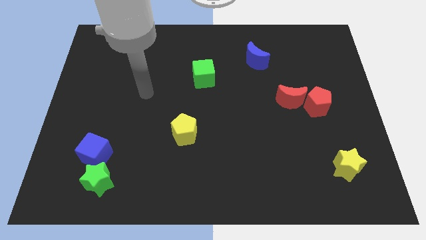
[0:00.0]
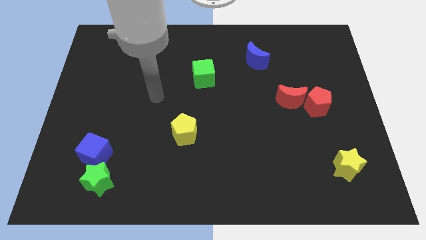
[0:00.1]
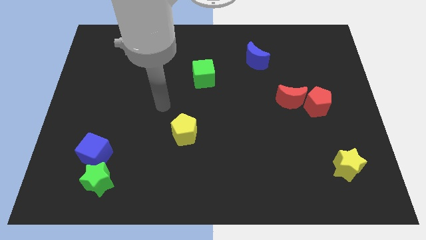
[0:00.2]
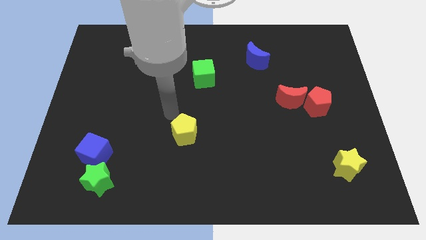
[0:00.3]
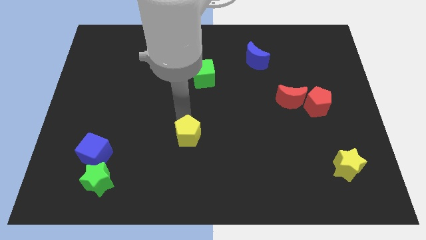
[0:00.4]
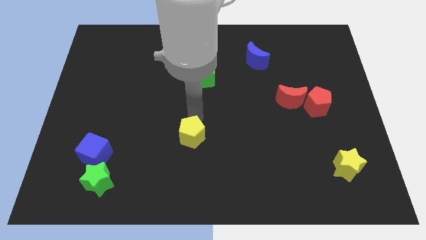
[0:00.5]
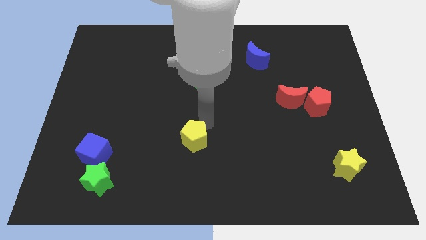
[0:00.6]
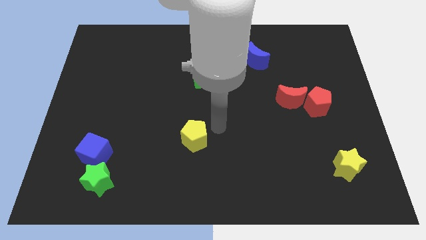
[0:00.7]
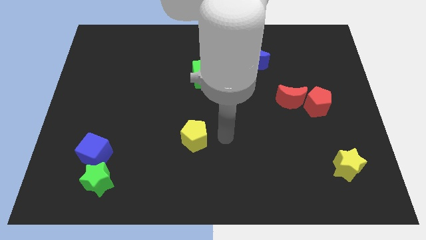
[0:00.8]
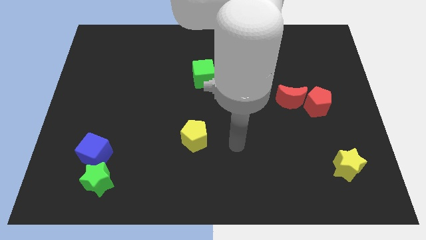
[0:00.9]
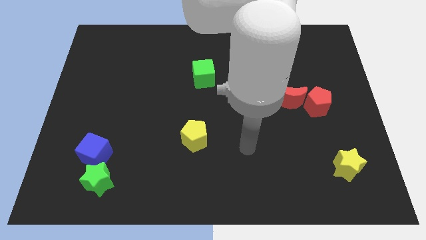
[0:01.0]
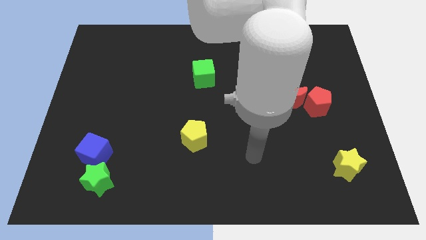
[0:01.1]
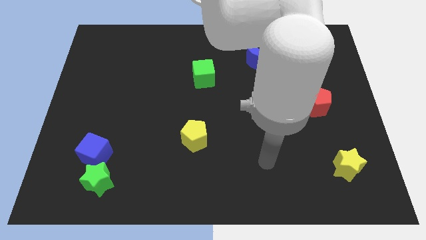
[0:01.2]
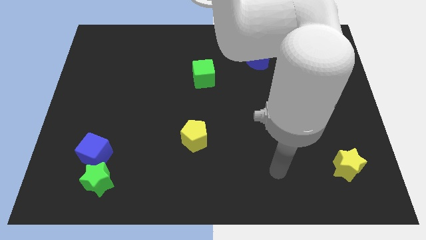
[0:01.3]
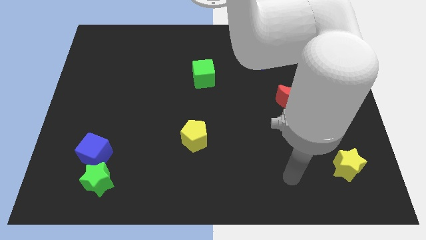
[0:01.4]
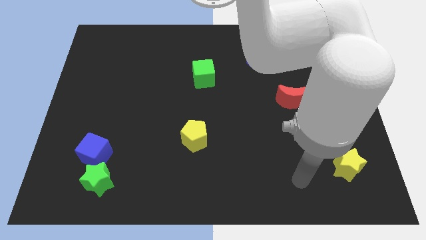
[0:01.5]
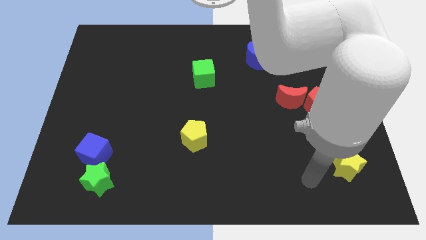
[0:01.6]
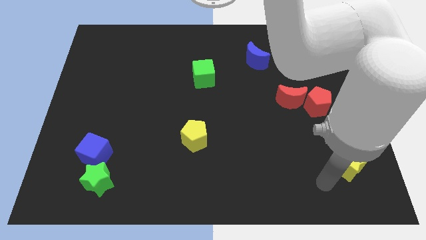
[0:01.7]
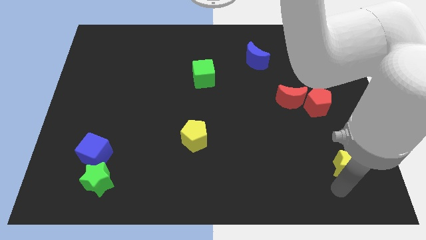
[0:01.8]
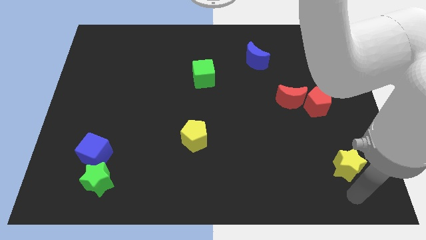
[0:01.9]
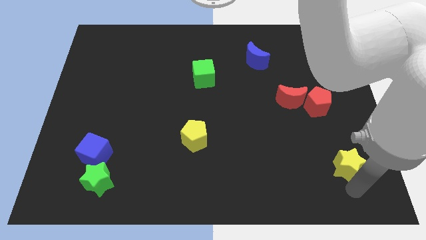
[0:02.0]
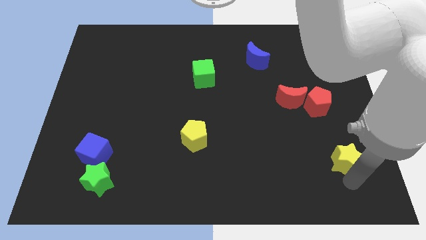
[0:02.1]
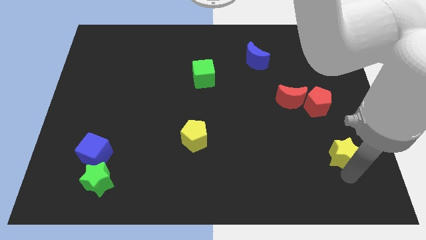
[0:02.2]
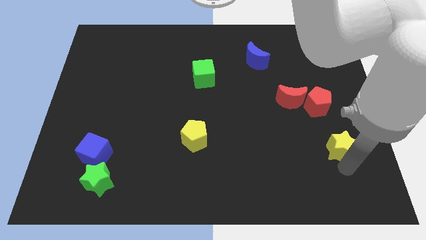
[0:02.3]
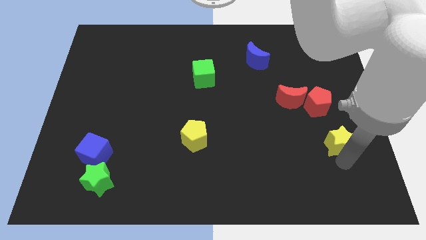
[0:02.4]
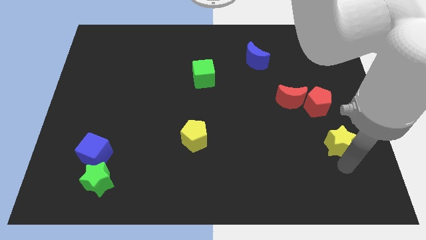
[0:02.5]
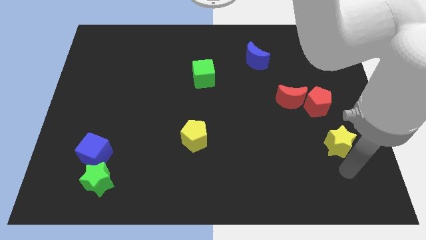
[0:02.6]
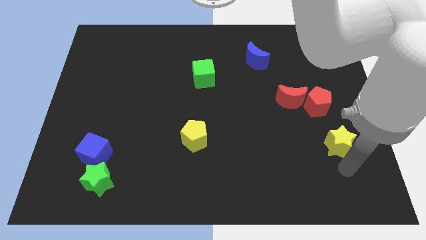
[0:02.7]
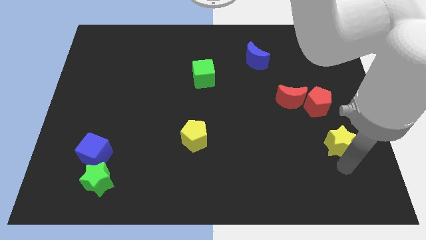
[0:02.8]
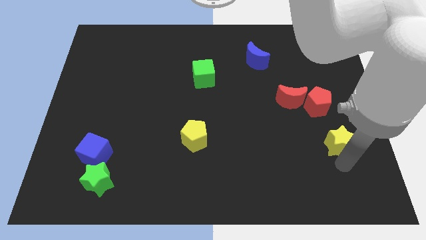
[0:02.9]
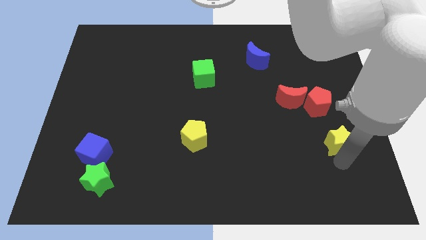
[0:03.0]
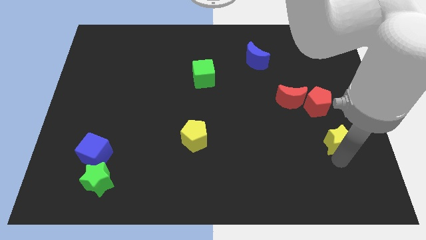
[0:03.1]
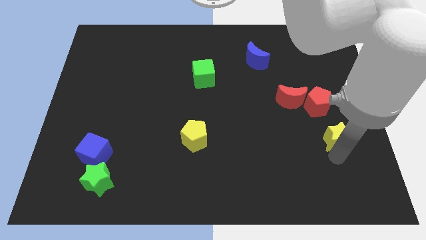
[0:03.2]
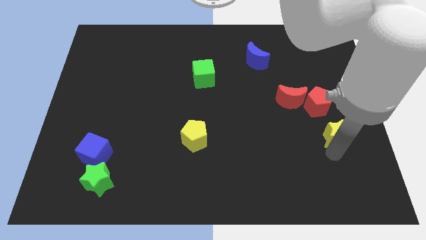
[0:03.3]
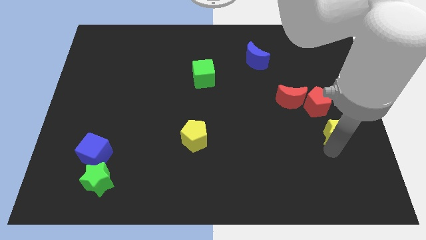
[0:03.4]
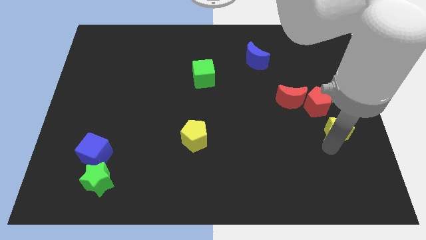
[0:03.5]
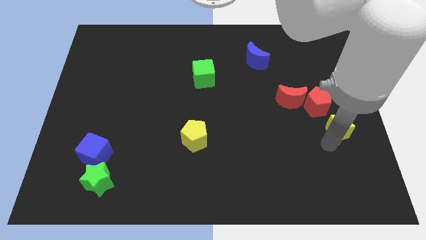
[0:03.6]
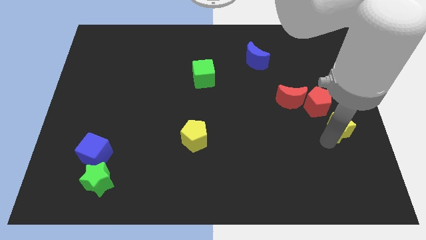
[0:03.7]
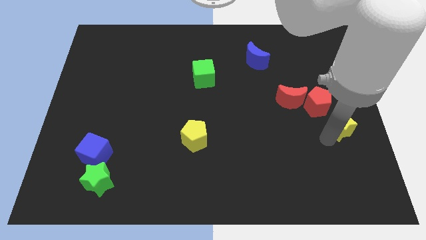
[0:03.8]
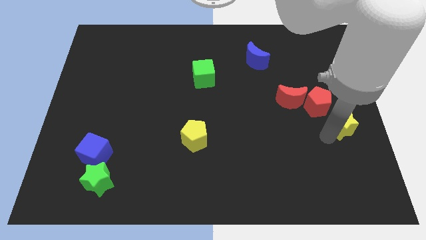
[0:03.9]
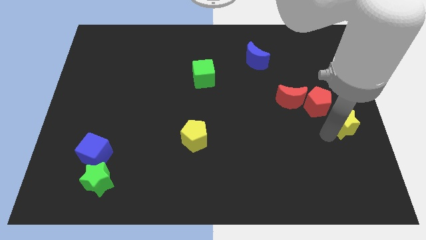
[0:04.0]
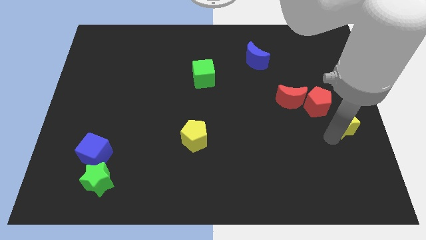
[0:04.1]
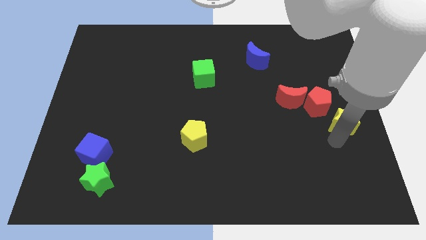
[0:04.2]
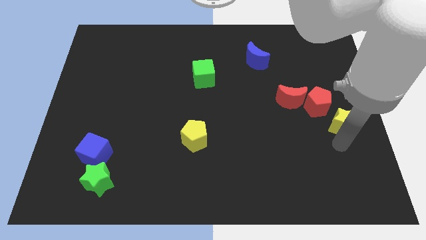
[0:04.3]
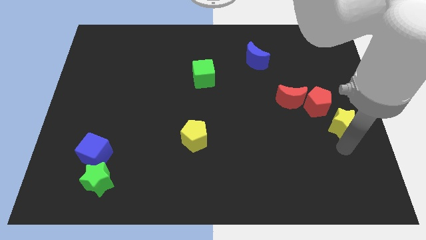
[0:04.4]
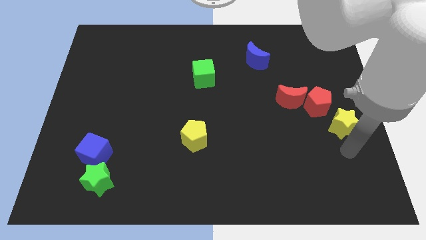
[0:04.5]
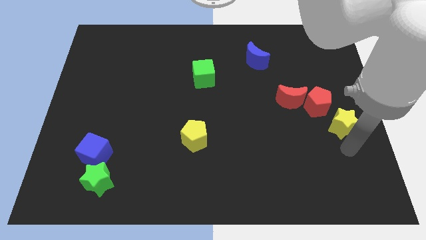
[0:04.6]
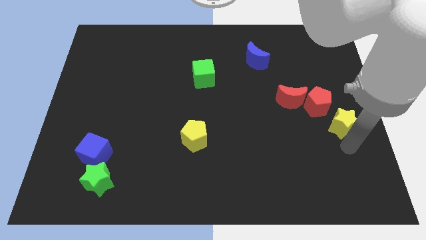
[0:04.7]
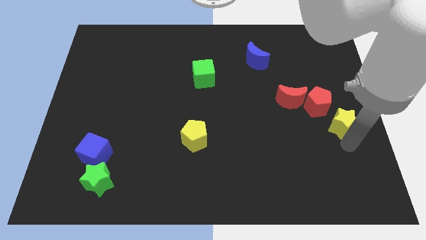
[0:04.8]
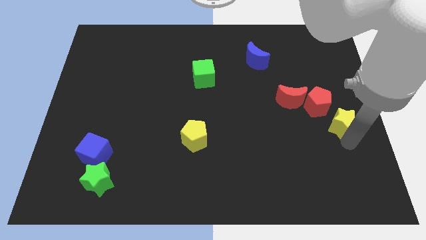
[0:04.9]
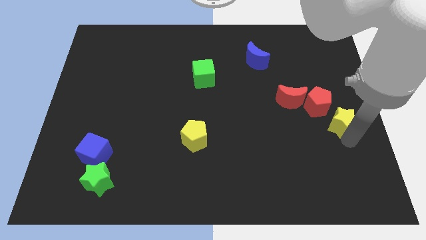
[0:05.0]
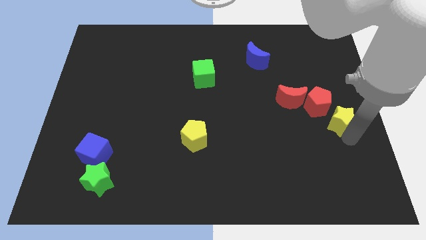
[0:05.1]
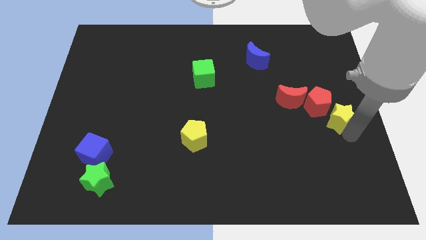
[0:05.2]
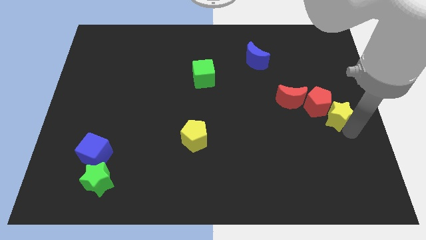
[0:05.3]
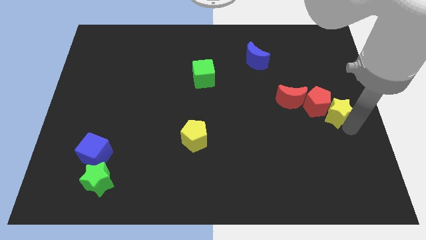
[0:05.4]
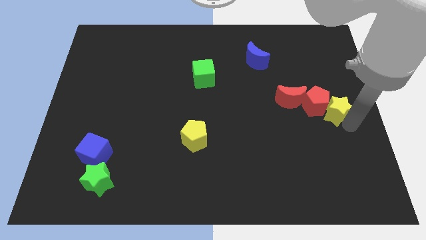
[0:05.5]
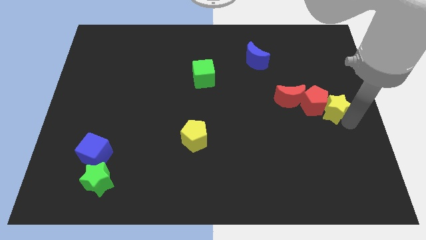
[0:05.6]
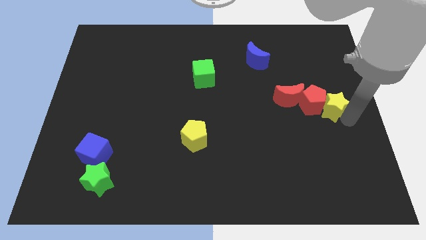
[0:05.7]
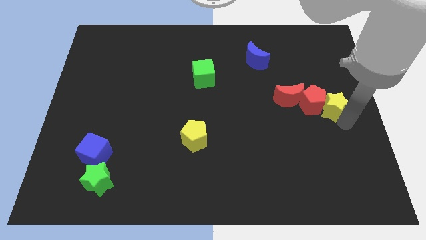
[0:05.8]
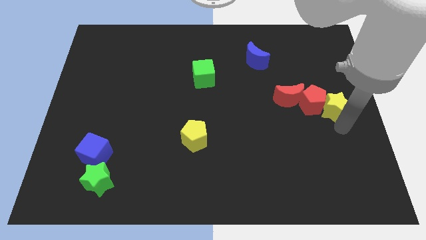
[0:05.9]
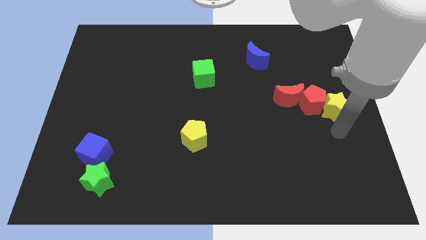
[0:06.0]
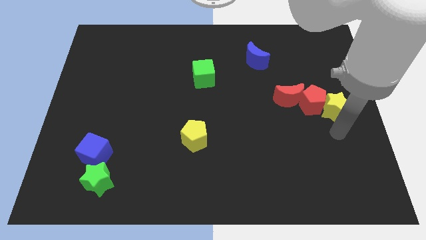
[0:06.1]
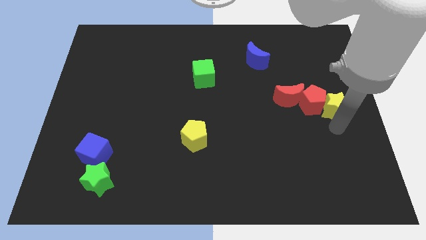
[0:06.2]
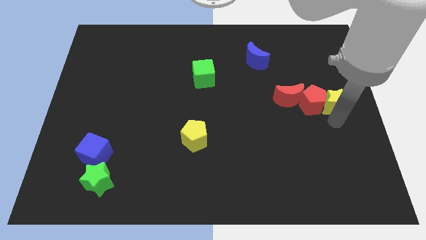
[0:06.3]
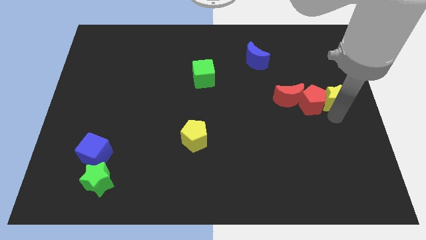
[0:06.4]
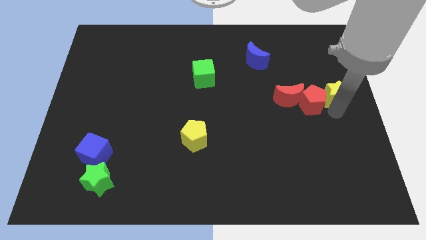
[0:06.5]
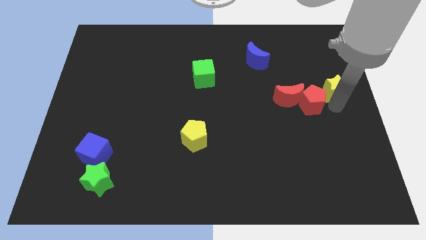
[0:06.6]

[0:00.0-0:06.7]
push the yellow star upwards

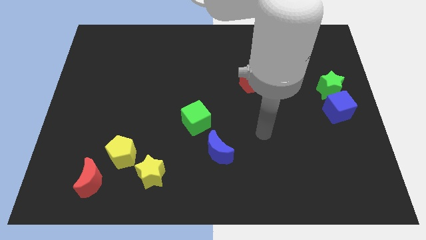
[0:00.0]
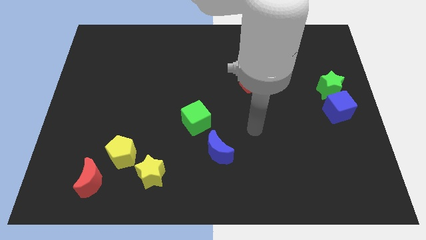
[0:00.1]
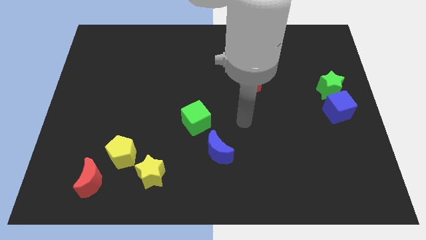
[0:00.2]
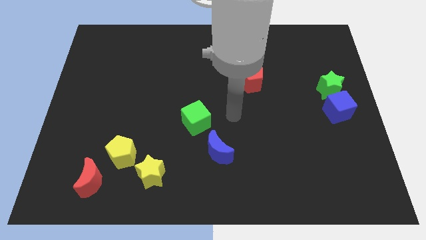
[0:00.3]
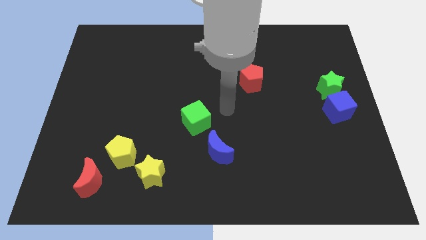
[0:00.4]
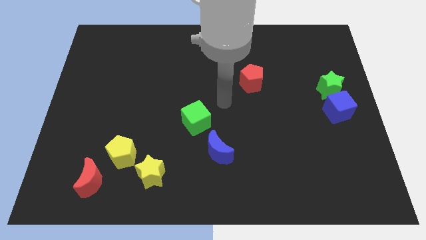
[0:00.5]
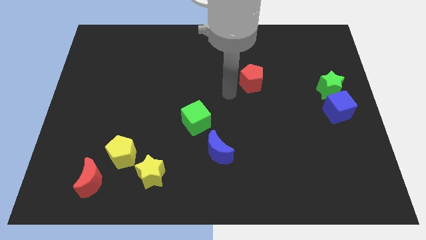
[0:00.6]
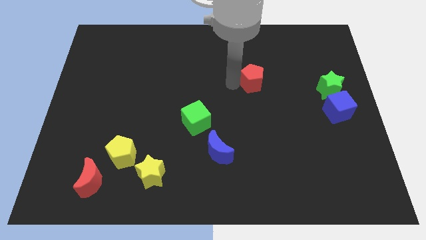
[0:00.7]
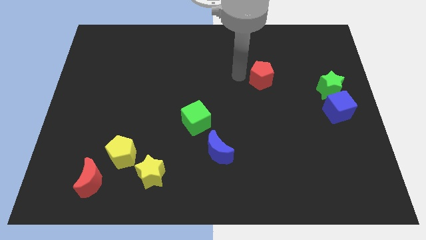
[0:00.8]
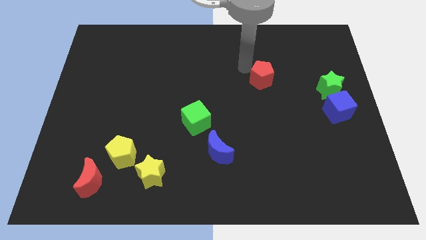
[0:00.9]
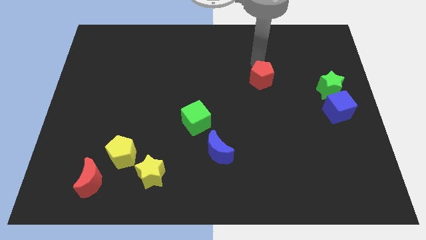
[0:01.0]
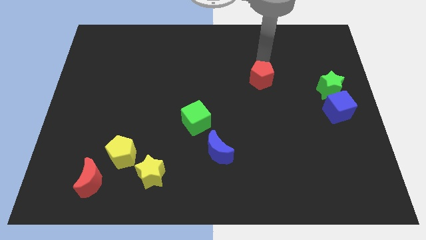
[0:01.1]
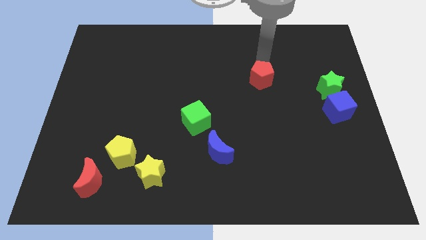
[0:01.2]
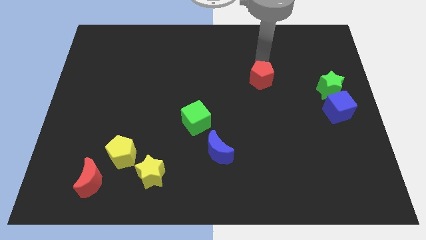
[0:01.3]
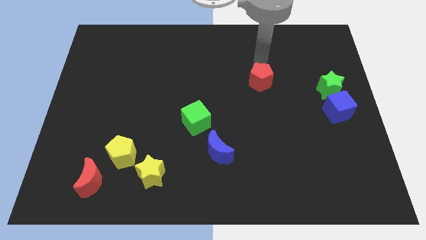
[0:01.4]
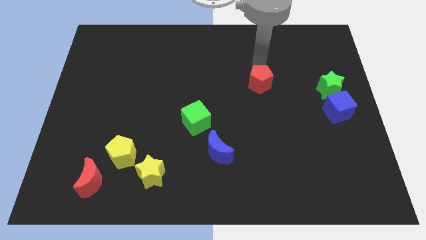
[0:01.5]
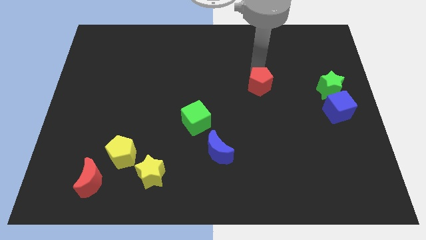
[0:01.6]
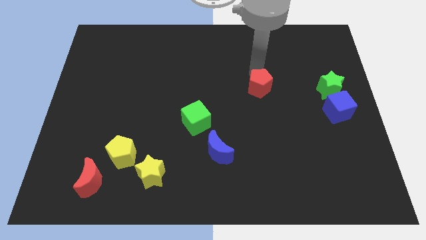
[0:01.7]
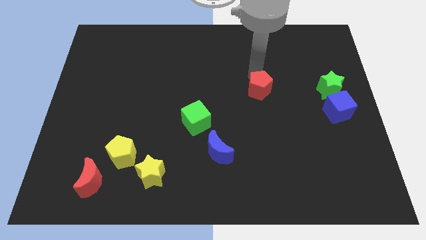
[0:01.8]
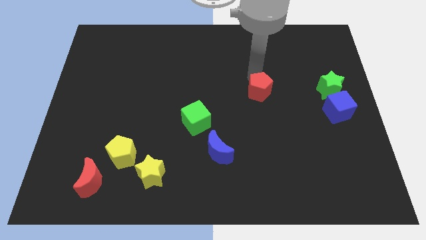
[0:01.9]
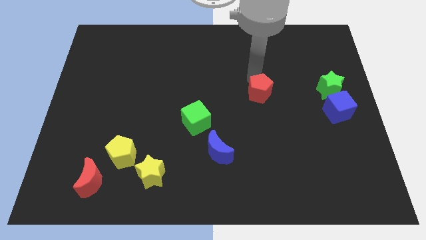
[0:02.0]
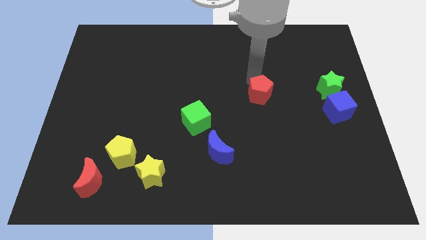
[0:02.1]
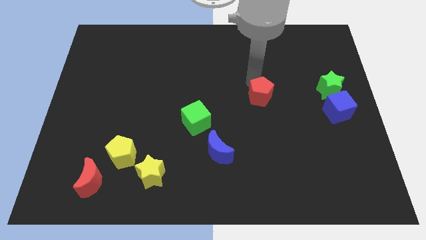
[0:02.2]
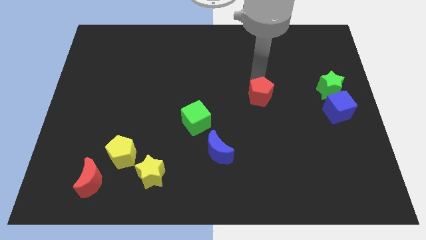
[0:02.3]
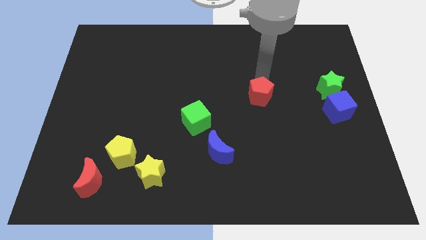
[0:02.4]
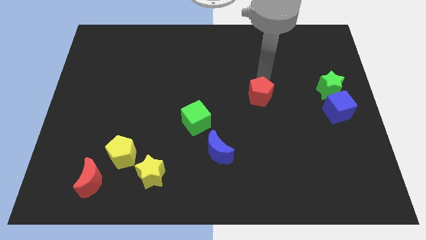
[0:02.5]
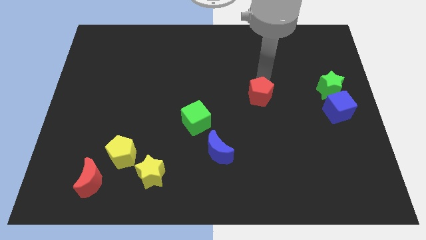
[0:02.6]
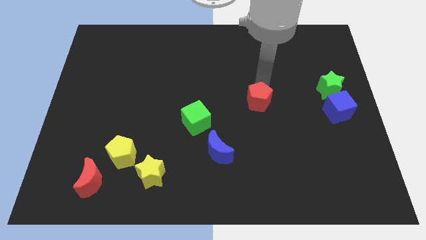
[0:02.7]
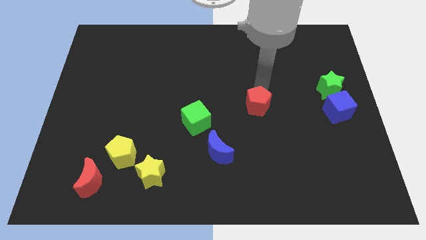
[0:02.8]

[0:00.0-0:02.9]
slightly move the red pentagon downwards
